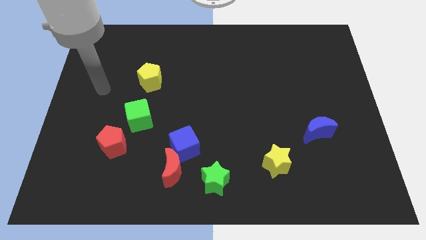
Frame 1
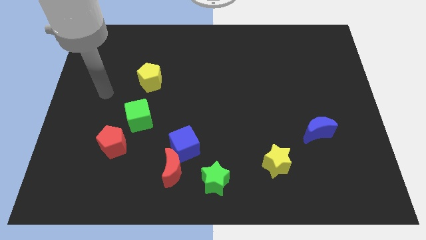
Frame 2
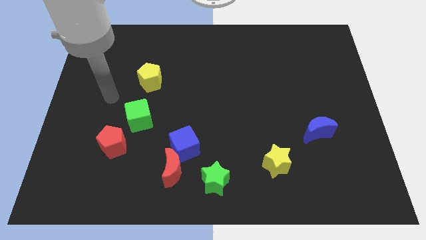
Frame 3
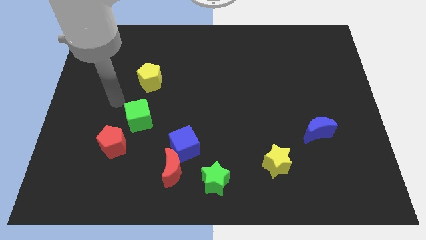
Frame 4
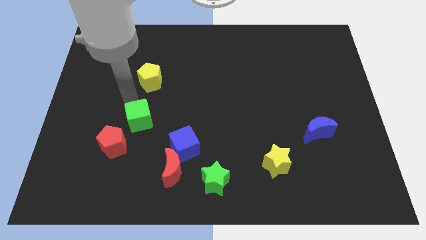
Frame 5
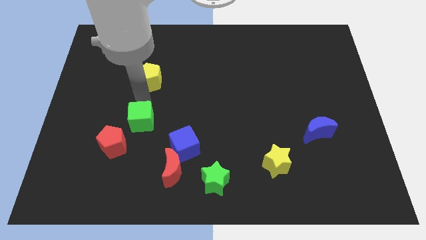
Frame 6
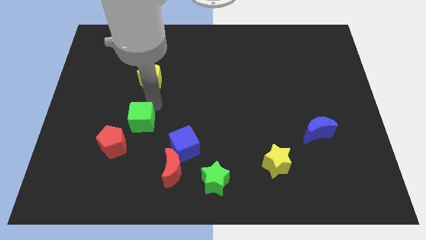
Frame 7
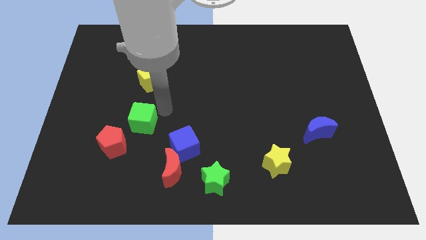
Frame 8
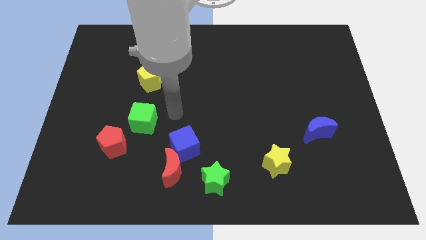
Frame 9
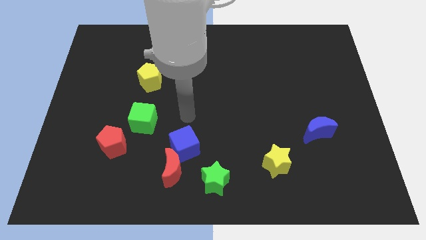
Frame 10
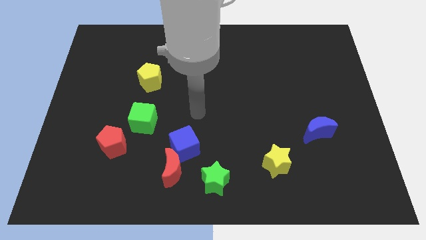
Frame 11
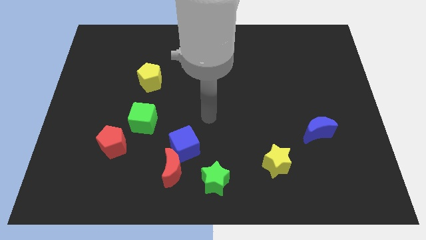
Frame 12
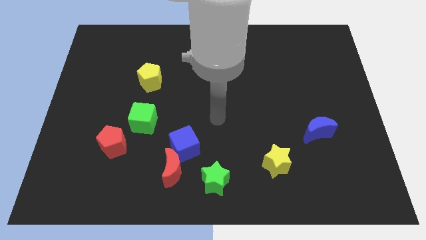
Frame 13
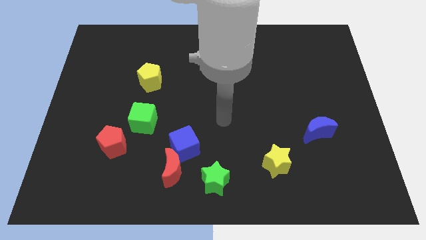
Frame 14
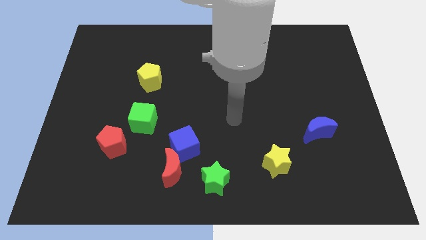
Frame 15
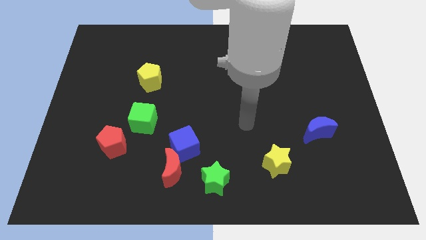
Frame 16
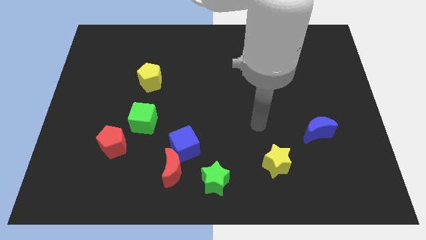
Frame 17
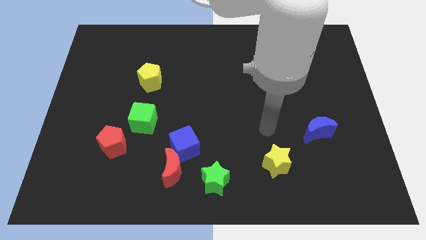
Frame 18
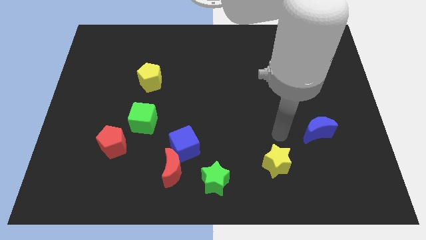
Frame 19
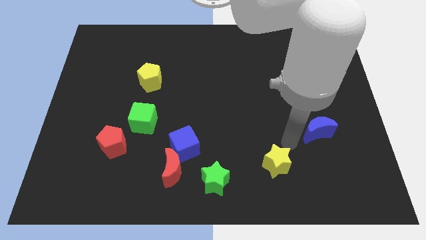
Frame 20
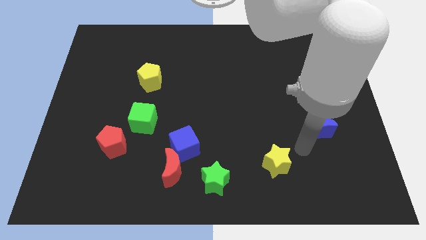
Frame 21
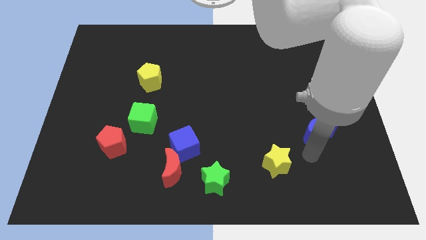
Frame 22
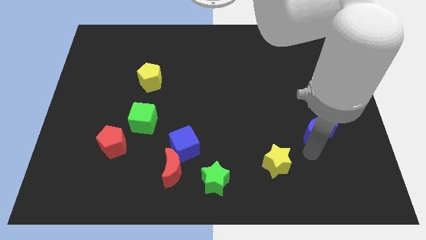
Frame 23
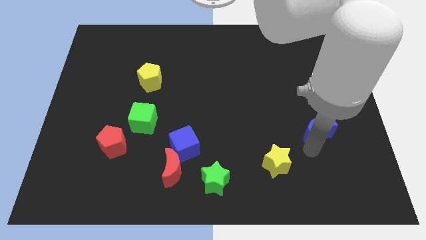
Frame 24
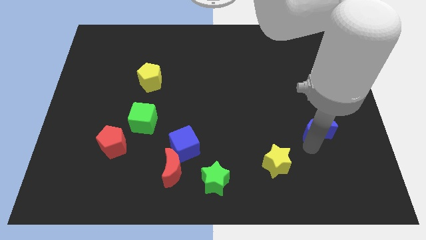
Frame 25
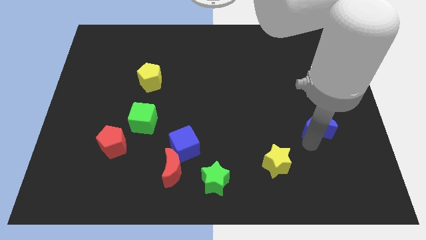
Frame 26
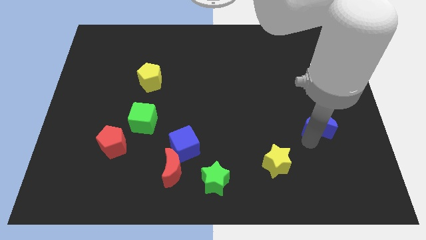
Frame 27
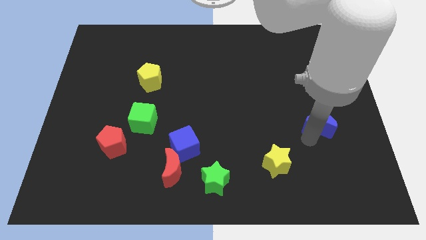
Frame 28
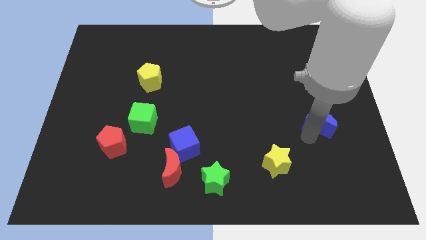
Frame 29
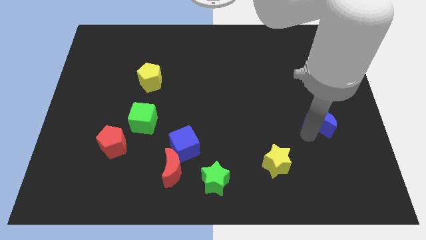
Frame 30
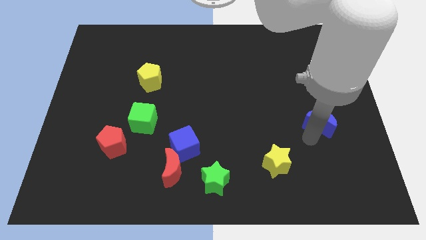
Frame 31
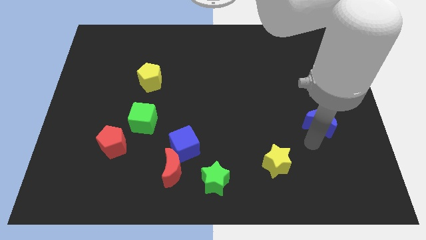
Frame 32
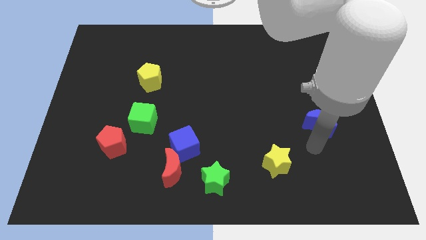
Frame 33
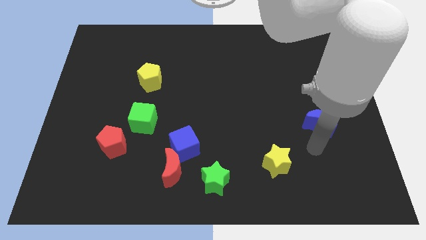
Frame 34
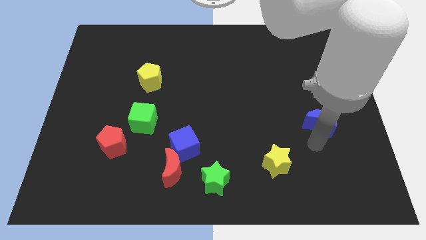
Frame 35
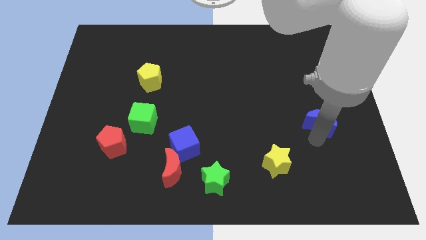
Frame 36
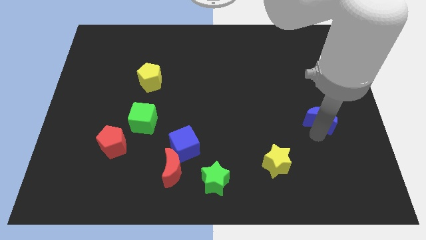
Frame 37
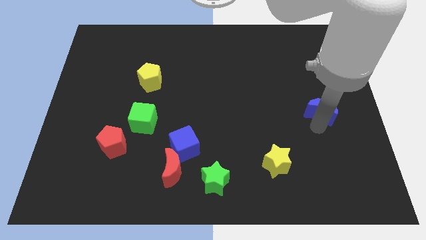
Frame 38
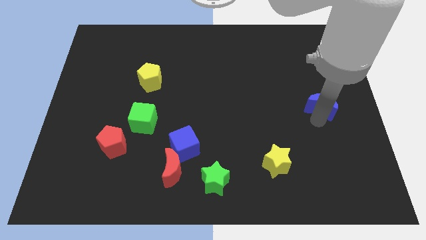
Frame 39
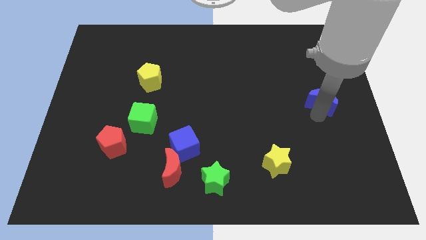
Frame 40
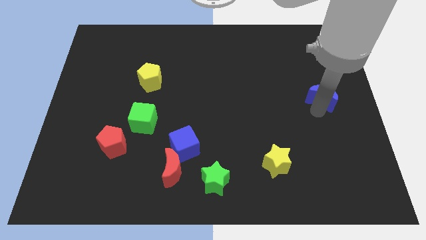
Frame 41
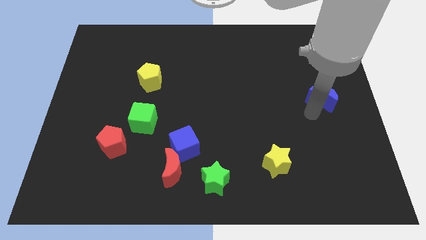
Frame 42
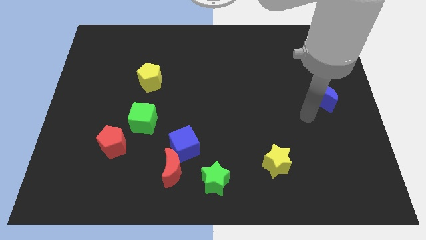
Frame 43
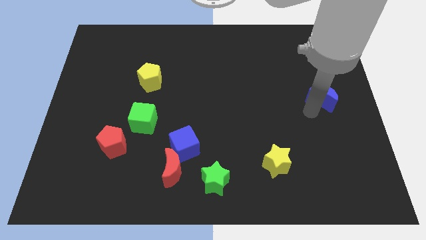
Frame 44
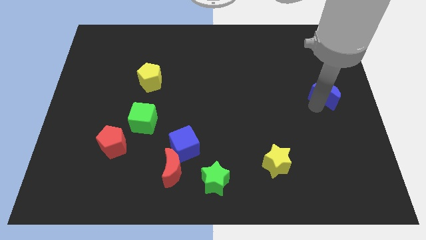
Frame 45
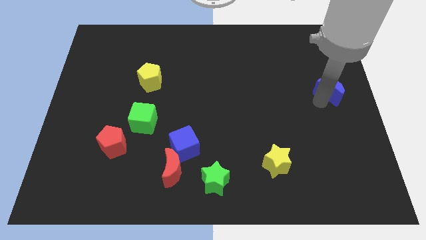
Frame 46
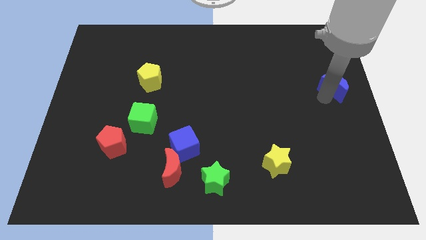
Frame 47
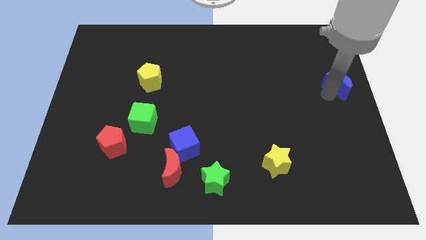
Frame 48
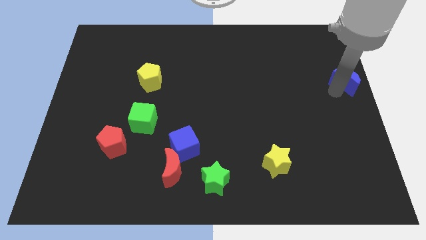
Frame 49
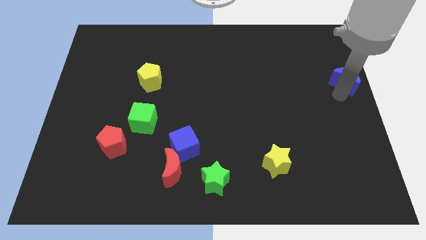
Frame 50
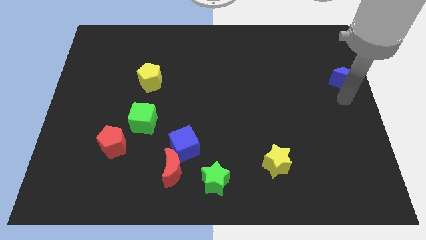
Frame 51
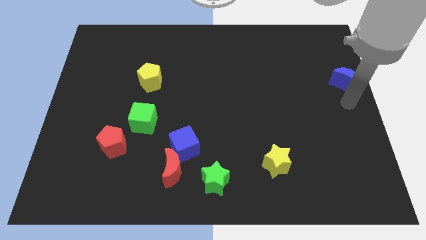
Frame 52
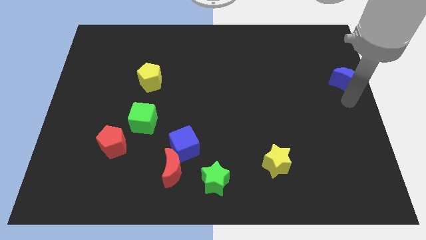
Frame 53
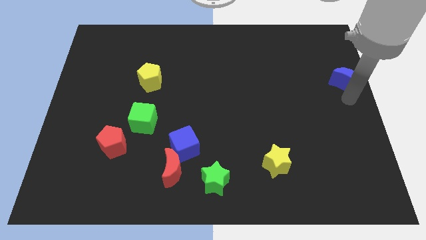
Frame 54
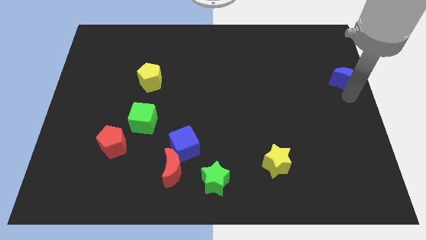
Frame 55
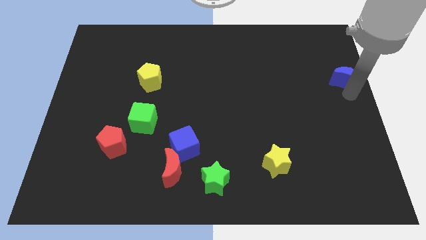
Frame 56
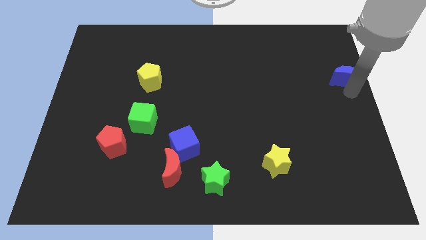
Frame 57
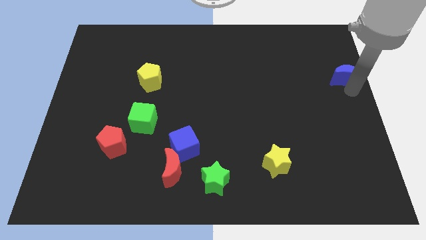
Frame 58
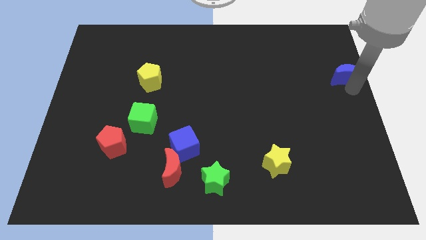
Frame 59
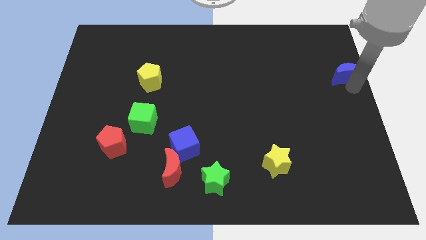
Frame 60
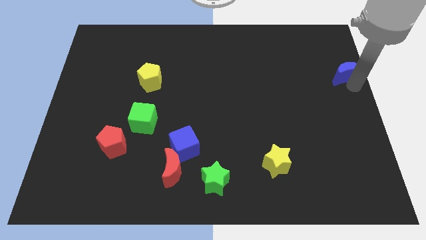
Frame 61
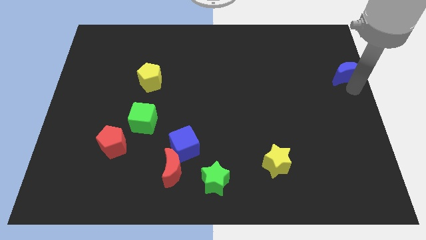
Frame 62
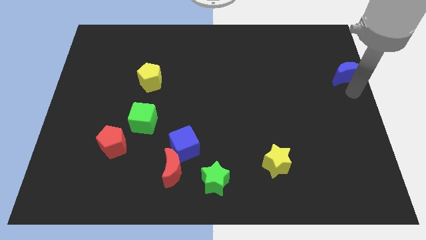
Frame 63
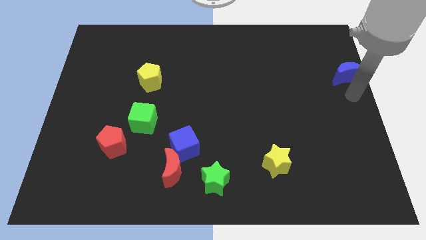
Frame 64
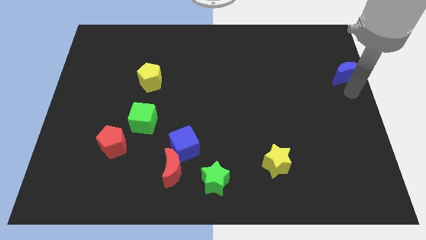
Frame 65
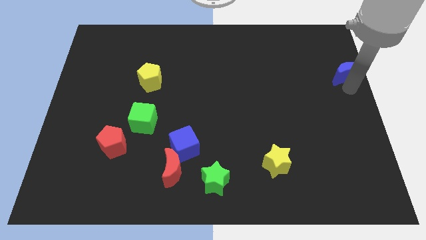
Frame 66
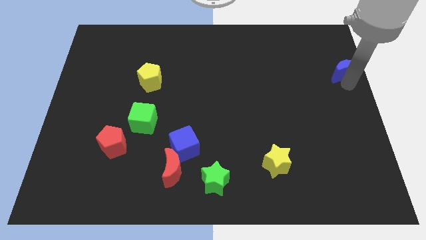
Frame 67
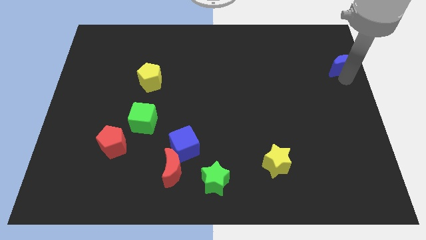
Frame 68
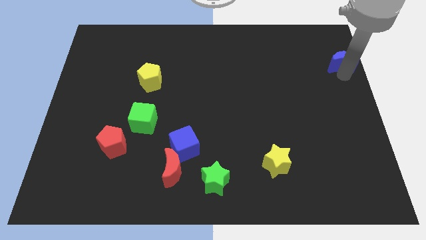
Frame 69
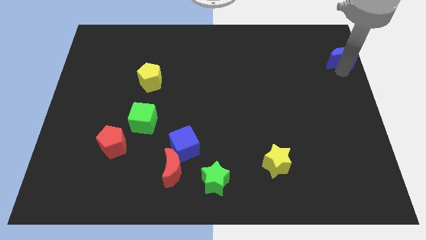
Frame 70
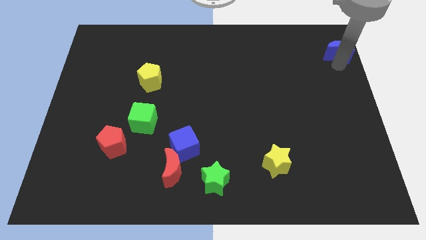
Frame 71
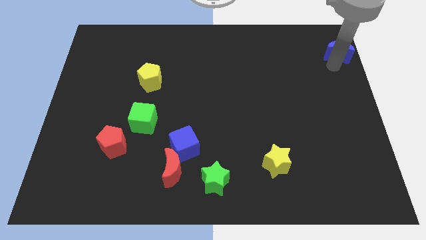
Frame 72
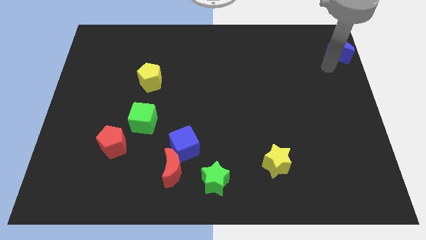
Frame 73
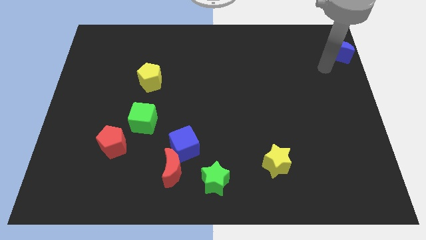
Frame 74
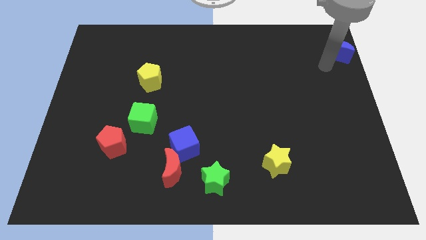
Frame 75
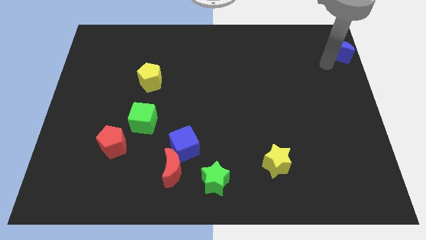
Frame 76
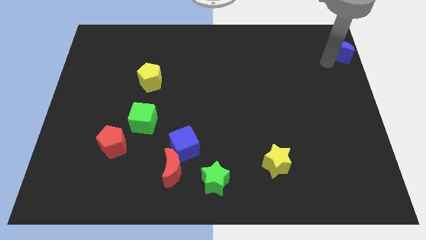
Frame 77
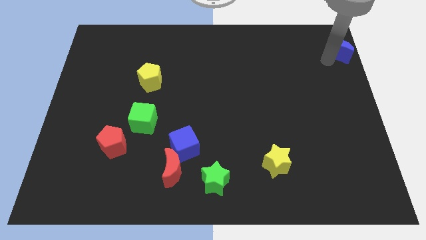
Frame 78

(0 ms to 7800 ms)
slide the blue moon to the upper right corner

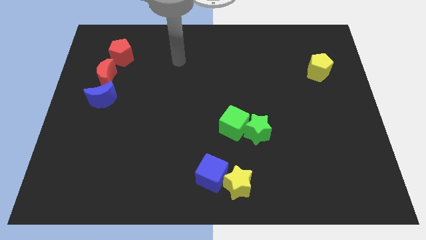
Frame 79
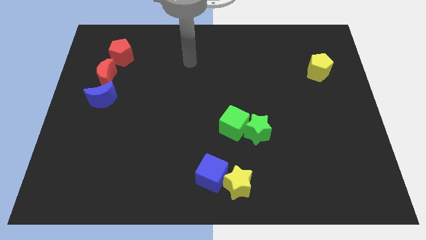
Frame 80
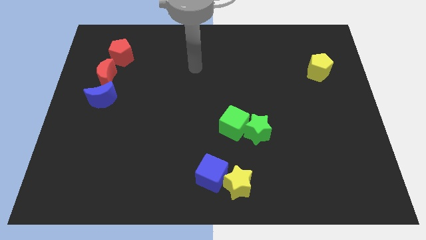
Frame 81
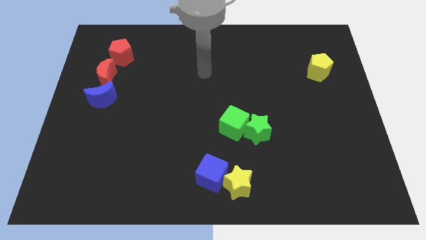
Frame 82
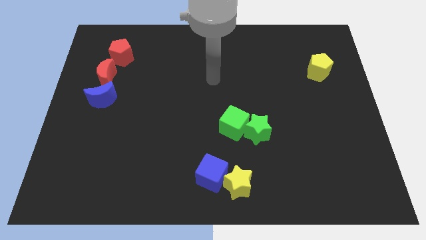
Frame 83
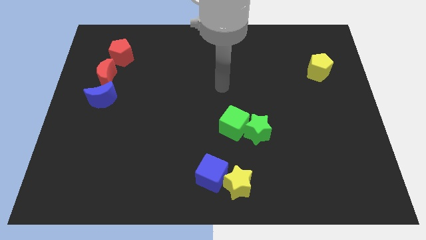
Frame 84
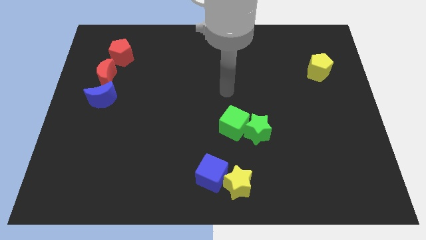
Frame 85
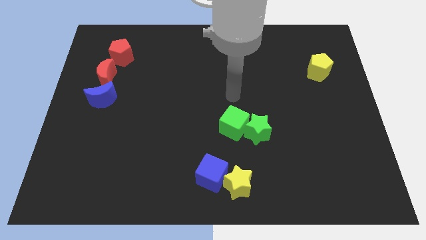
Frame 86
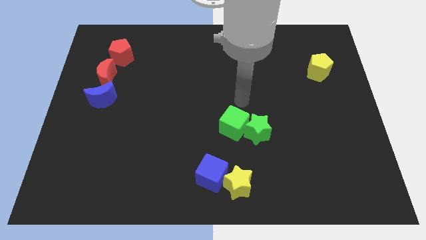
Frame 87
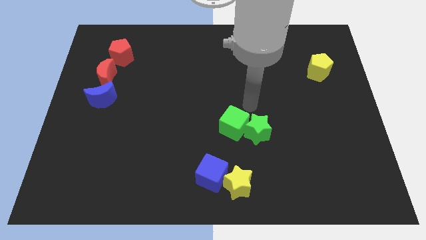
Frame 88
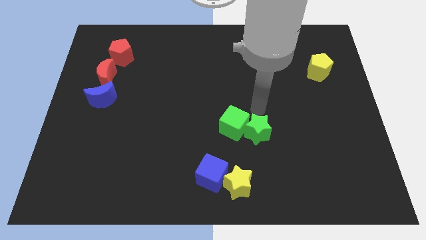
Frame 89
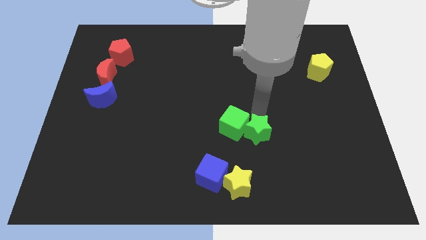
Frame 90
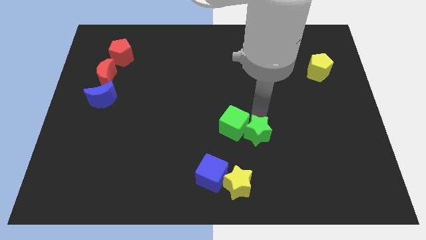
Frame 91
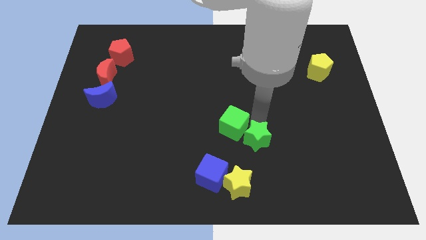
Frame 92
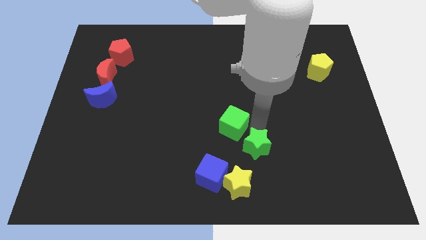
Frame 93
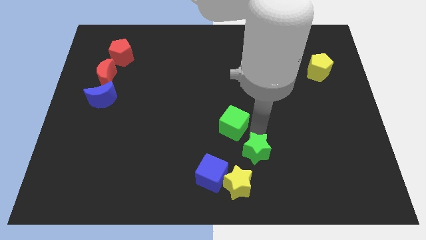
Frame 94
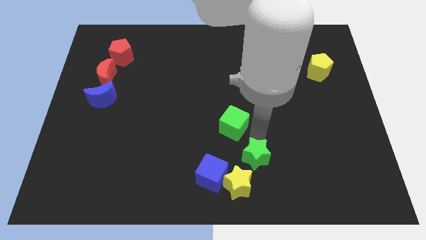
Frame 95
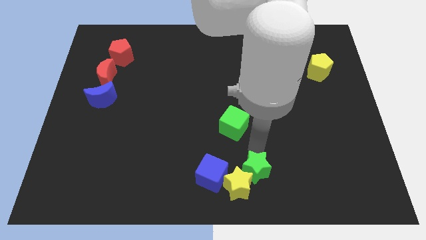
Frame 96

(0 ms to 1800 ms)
push the green star to the bottom
